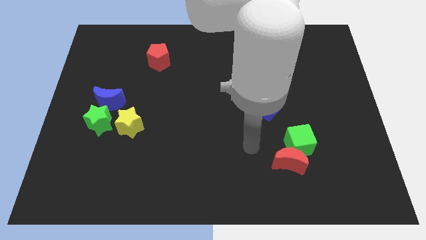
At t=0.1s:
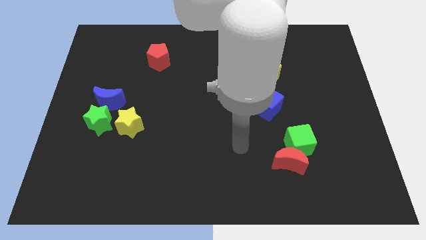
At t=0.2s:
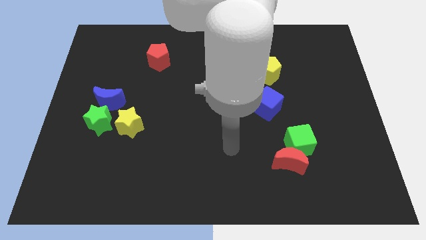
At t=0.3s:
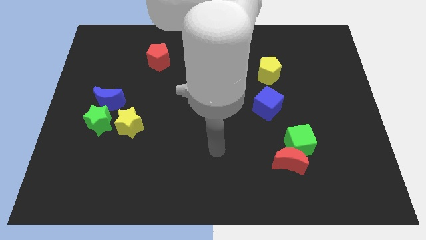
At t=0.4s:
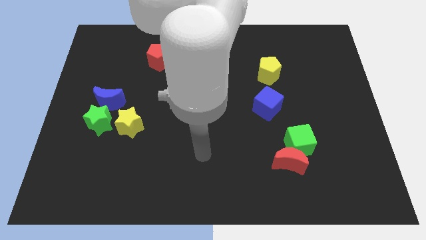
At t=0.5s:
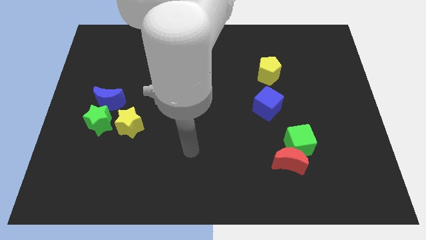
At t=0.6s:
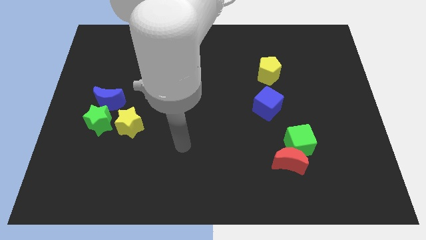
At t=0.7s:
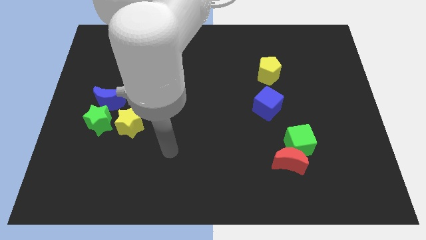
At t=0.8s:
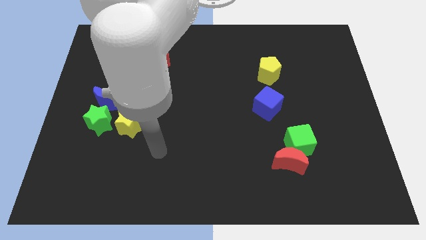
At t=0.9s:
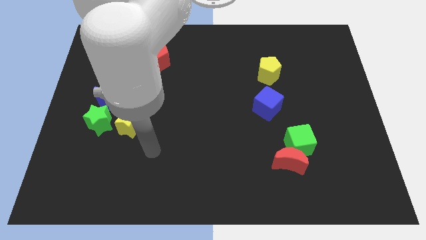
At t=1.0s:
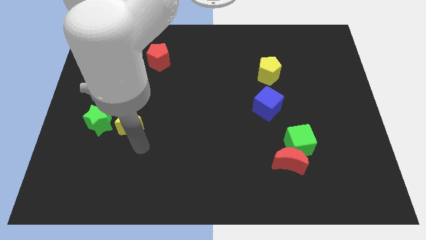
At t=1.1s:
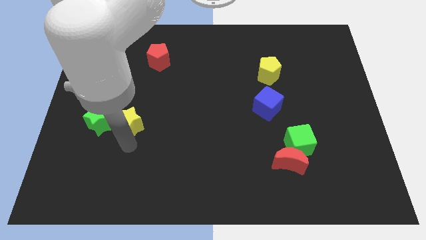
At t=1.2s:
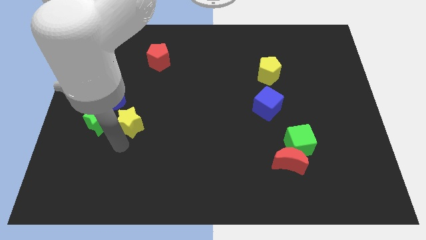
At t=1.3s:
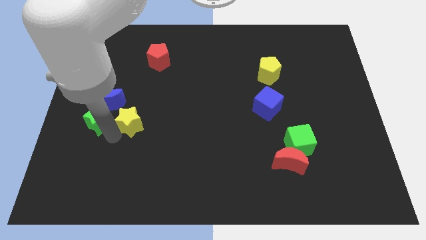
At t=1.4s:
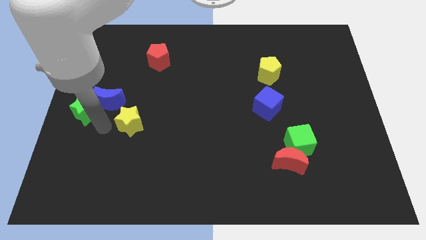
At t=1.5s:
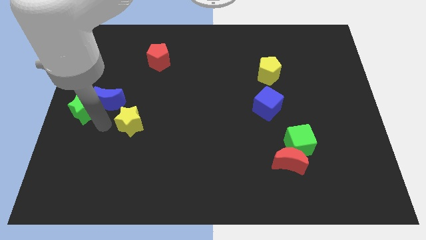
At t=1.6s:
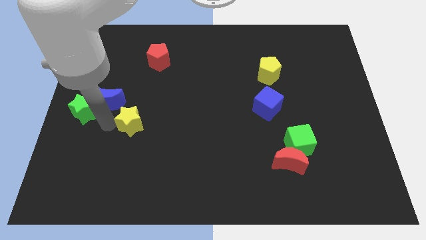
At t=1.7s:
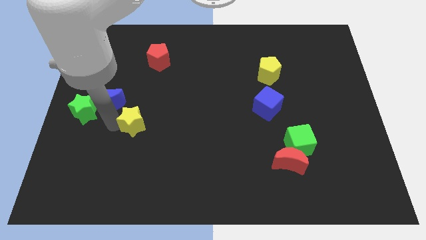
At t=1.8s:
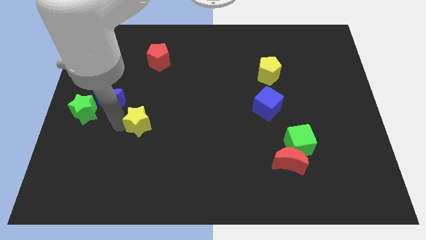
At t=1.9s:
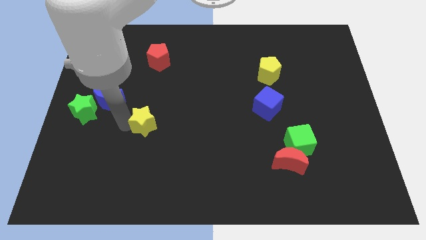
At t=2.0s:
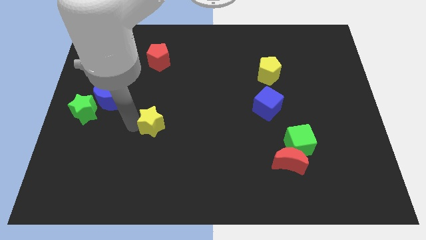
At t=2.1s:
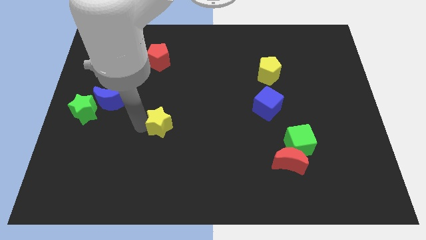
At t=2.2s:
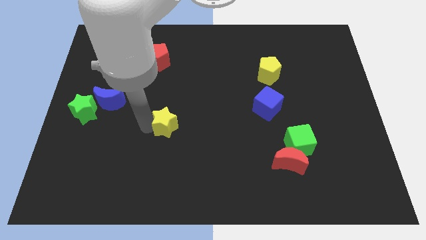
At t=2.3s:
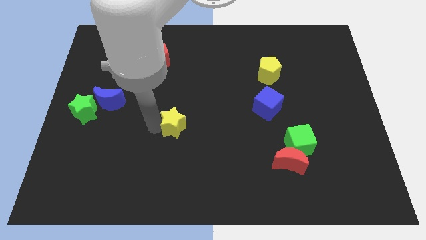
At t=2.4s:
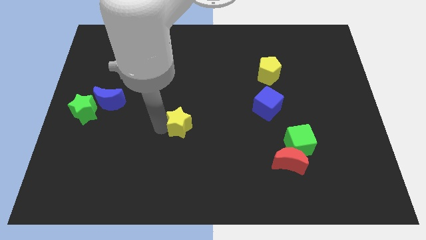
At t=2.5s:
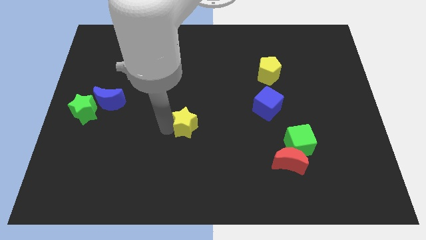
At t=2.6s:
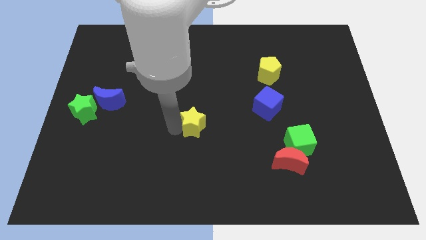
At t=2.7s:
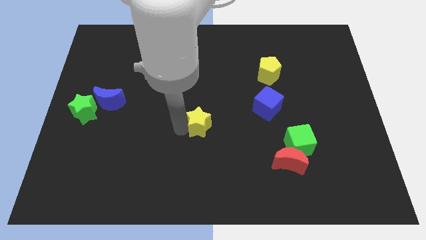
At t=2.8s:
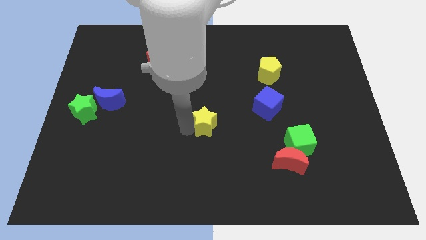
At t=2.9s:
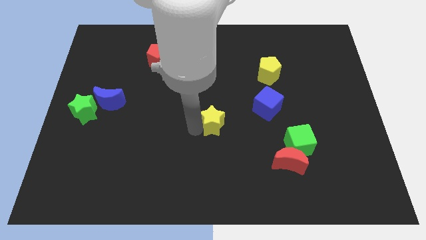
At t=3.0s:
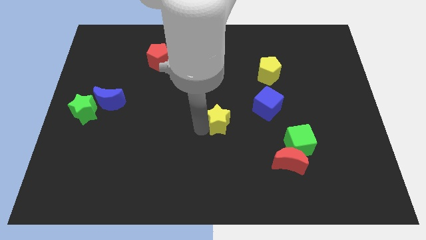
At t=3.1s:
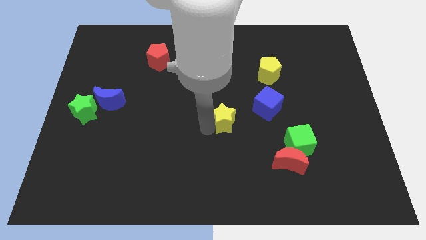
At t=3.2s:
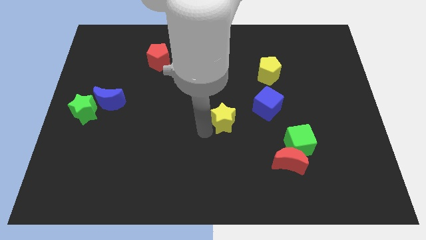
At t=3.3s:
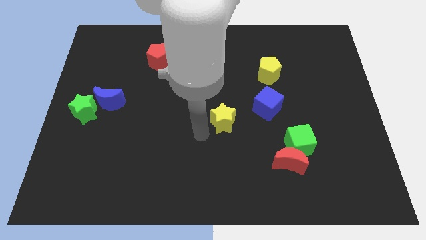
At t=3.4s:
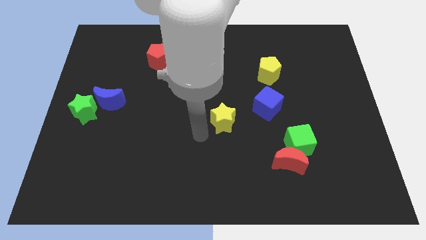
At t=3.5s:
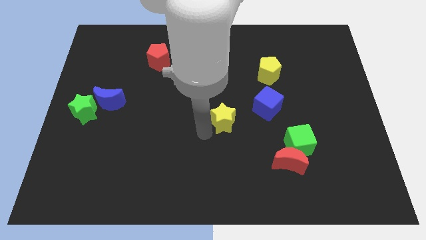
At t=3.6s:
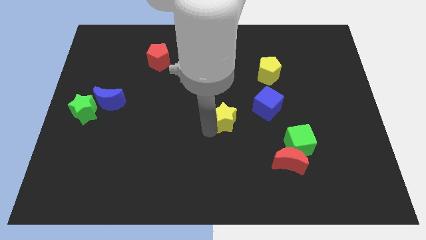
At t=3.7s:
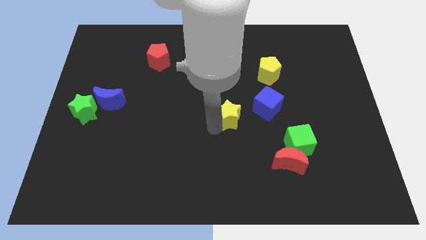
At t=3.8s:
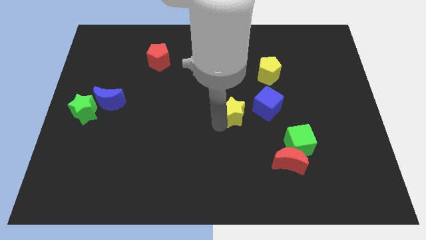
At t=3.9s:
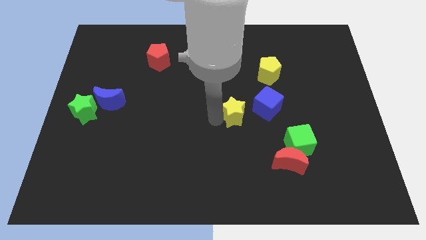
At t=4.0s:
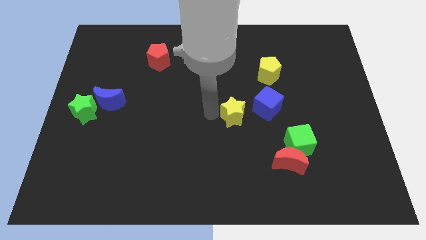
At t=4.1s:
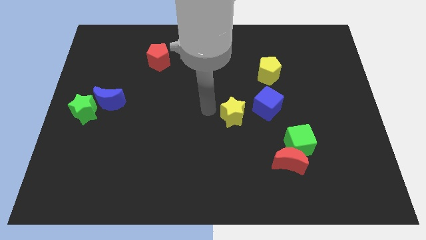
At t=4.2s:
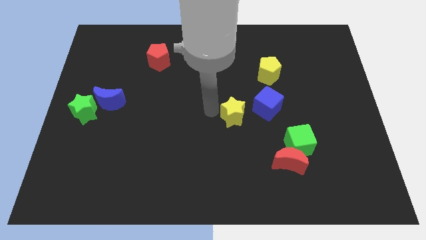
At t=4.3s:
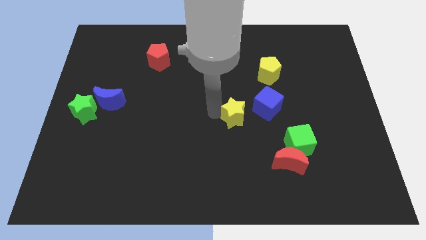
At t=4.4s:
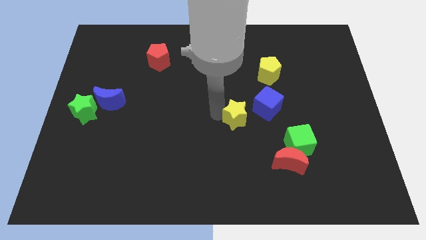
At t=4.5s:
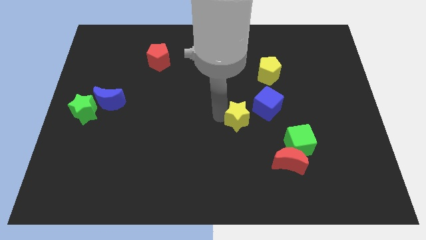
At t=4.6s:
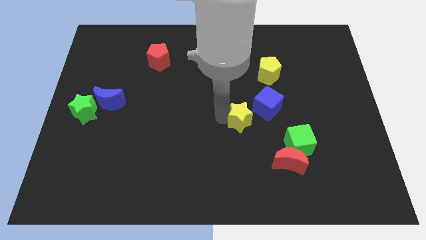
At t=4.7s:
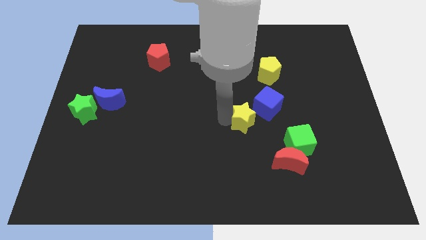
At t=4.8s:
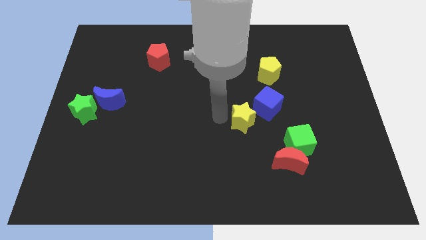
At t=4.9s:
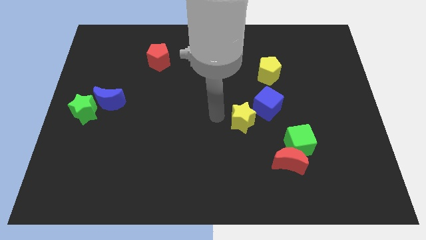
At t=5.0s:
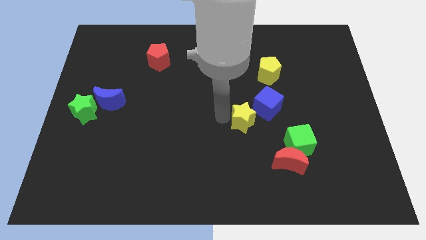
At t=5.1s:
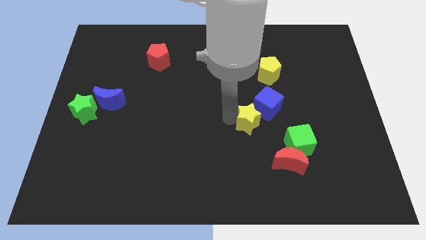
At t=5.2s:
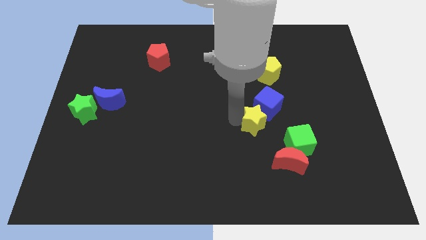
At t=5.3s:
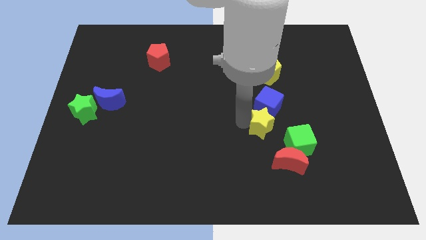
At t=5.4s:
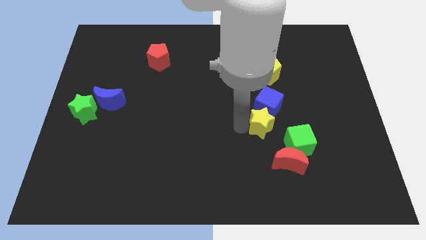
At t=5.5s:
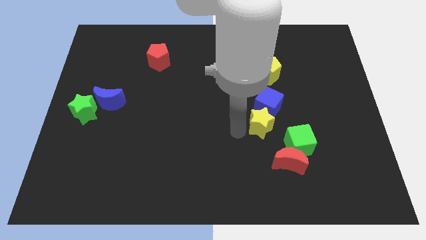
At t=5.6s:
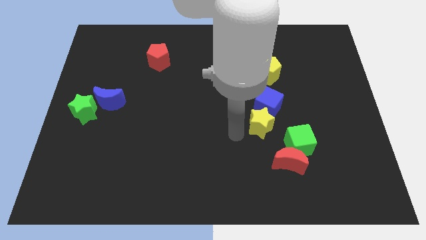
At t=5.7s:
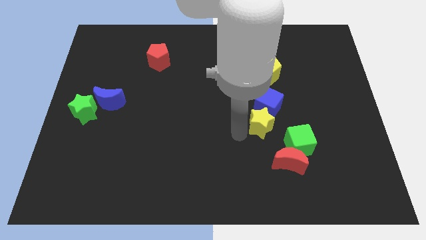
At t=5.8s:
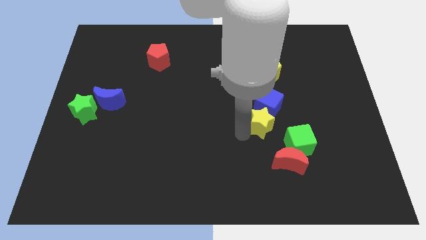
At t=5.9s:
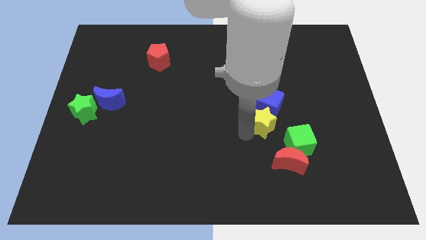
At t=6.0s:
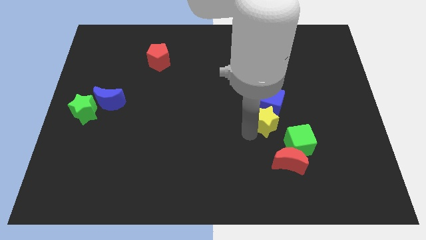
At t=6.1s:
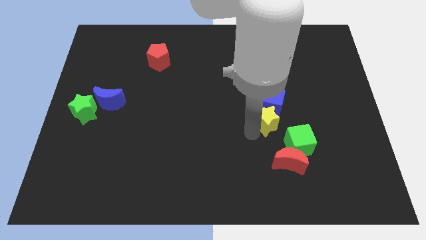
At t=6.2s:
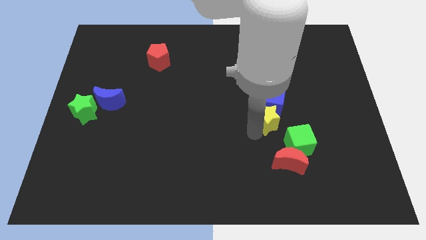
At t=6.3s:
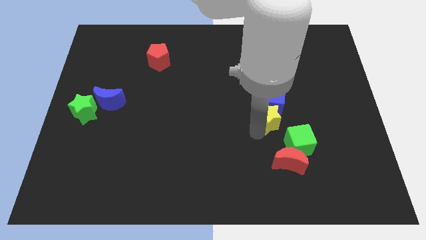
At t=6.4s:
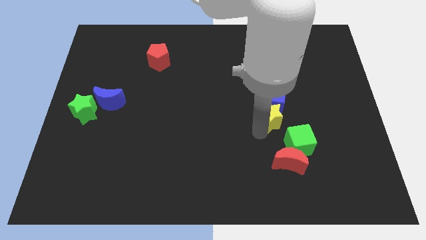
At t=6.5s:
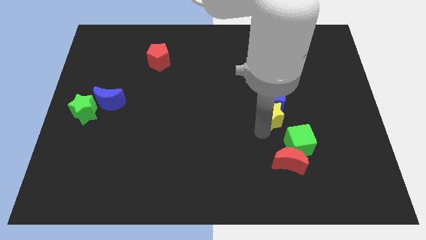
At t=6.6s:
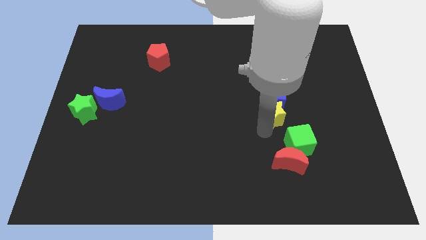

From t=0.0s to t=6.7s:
move the yellow star to the top side of the green cube

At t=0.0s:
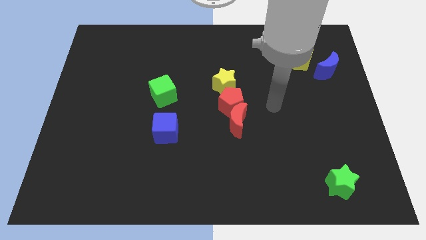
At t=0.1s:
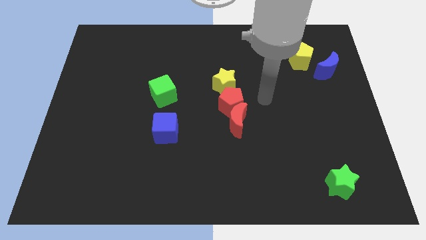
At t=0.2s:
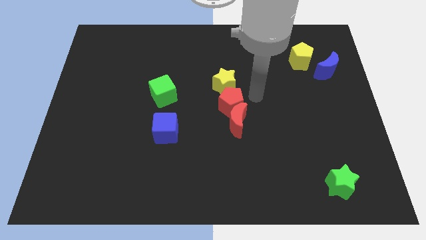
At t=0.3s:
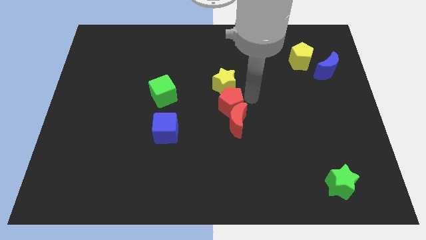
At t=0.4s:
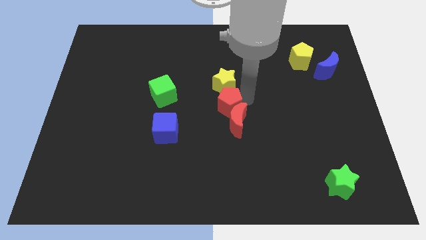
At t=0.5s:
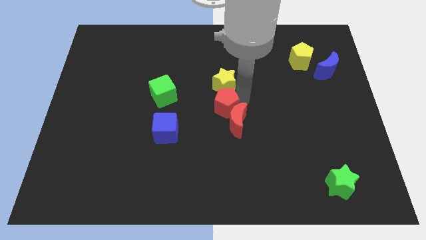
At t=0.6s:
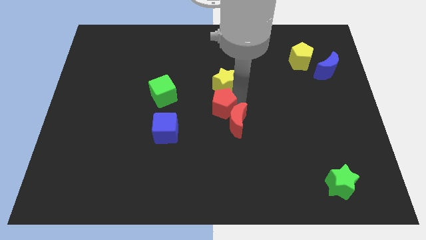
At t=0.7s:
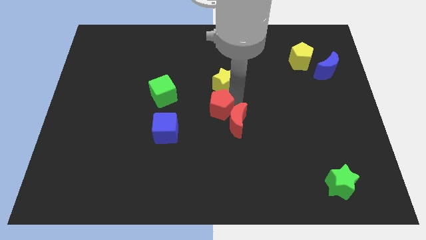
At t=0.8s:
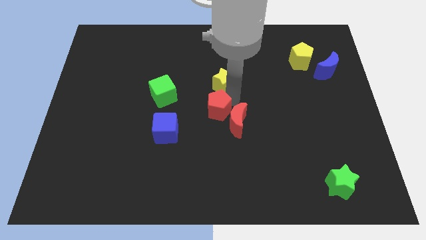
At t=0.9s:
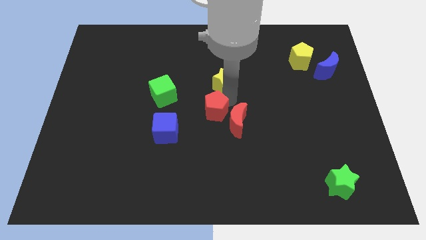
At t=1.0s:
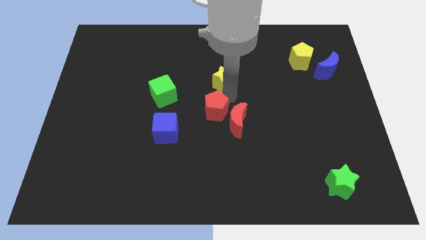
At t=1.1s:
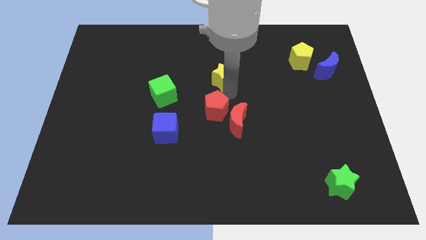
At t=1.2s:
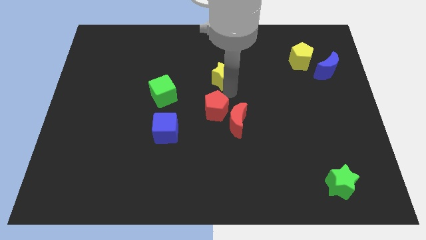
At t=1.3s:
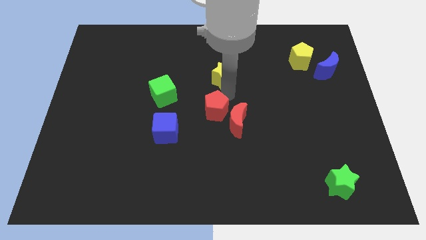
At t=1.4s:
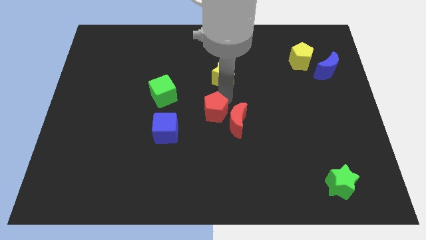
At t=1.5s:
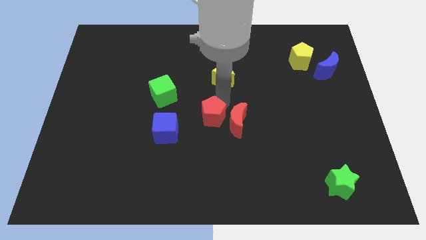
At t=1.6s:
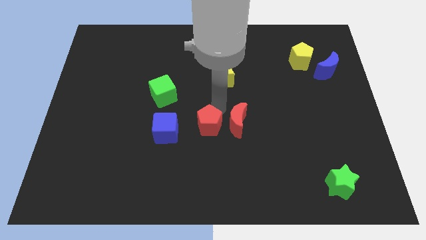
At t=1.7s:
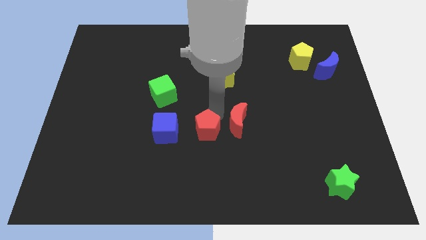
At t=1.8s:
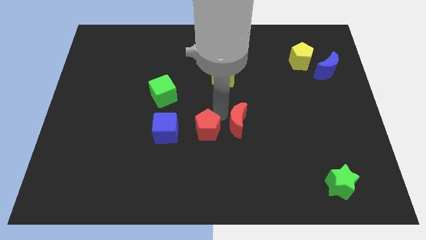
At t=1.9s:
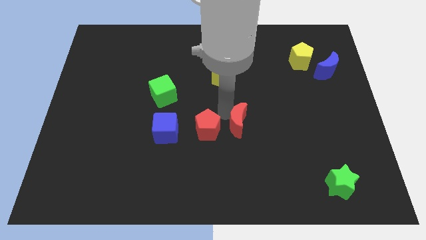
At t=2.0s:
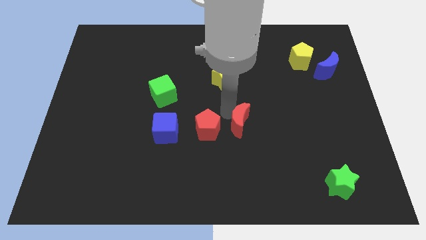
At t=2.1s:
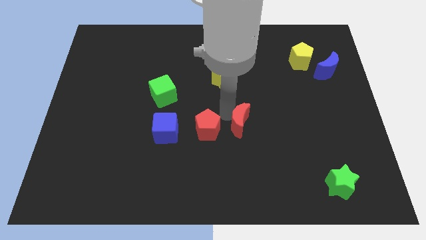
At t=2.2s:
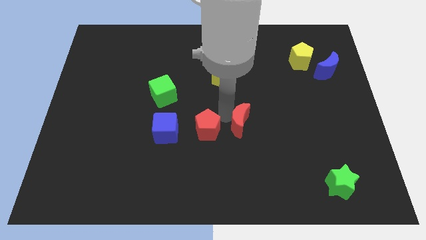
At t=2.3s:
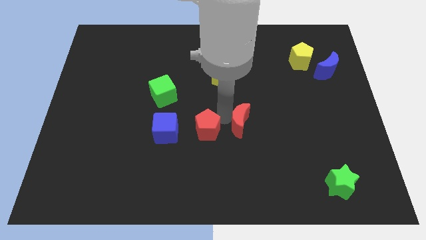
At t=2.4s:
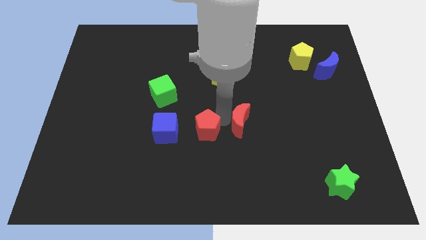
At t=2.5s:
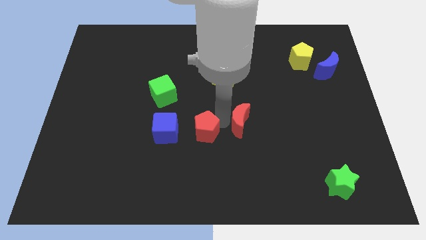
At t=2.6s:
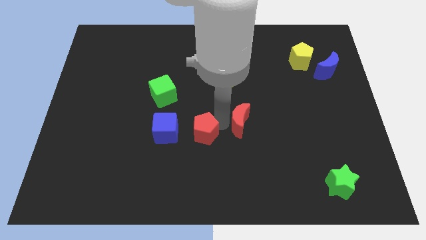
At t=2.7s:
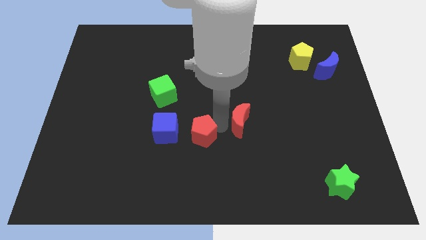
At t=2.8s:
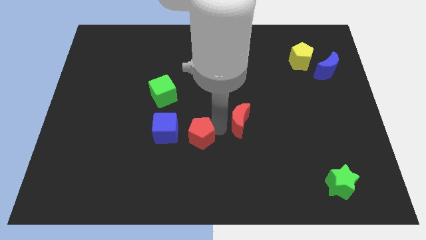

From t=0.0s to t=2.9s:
move the red pentagon diagonally down and to the right of the blue cube
